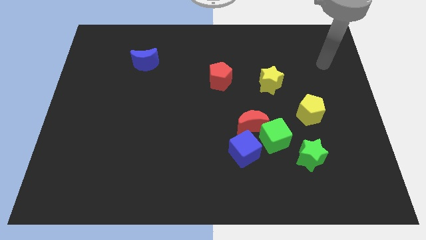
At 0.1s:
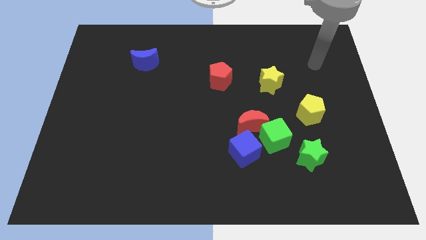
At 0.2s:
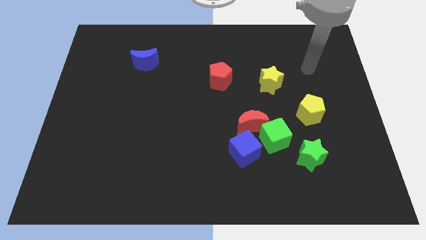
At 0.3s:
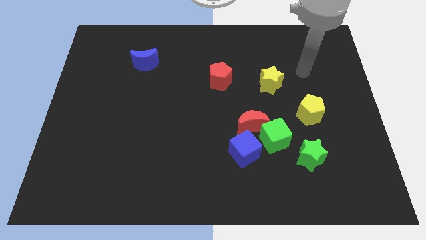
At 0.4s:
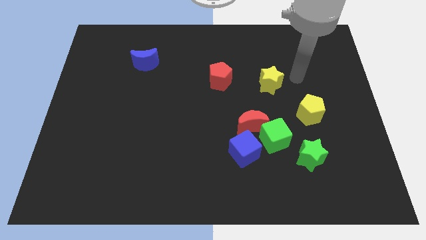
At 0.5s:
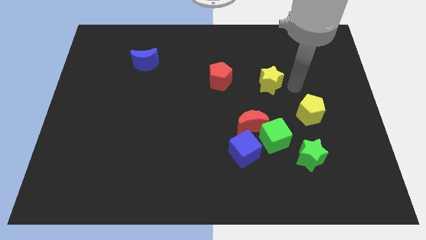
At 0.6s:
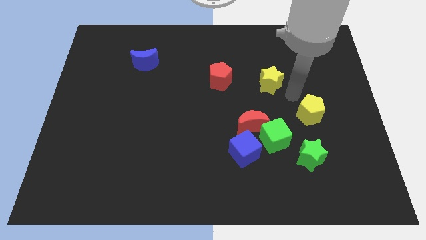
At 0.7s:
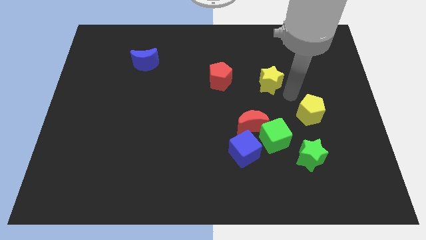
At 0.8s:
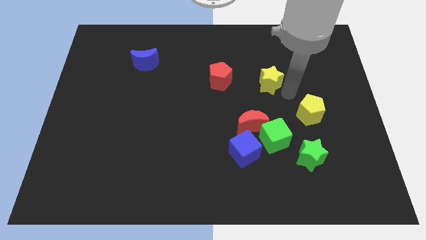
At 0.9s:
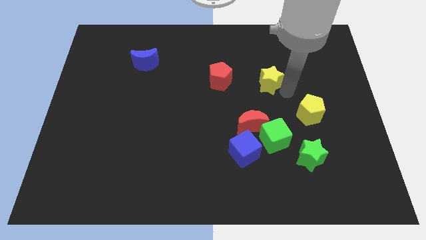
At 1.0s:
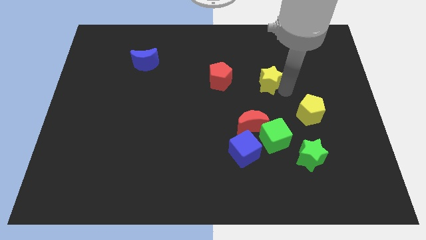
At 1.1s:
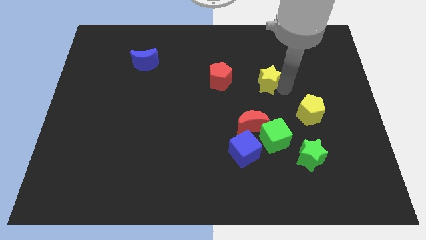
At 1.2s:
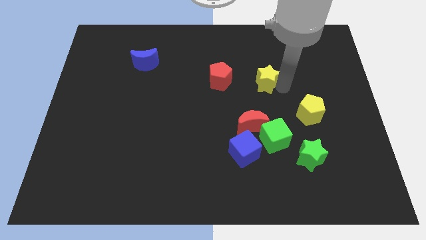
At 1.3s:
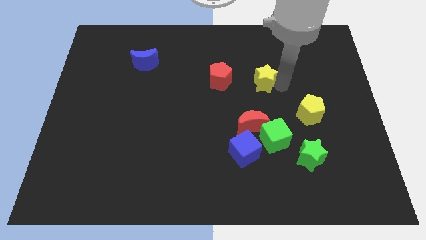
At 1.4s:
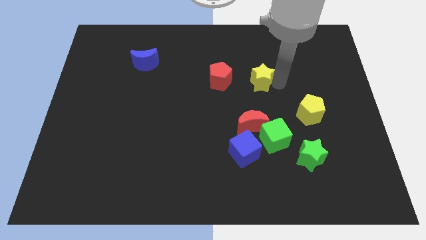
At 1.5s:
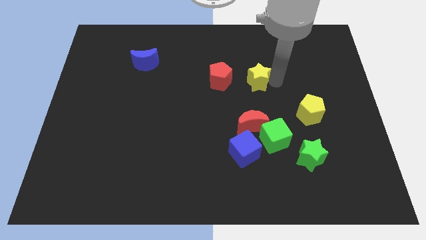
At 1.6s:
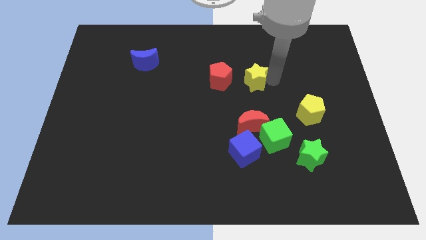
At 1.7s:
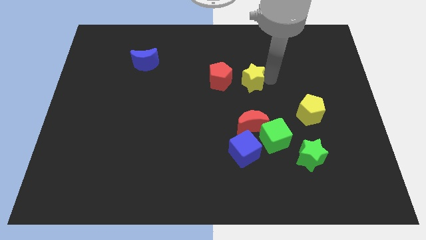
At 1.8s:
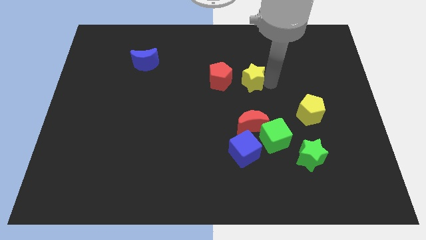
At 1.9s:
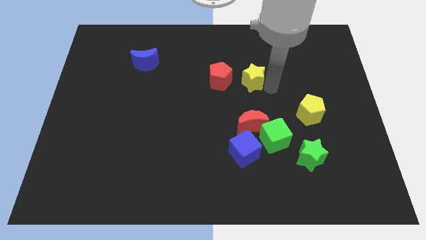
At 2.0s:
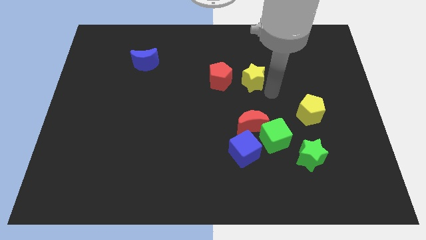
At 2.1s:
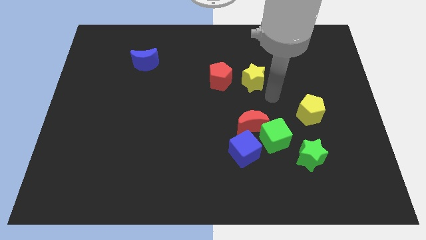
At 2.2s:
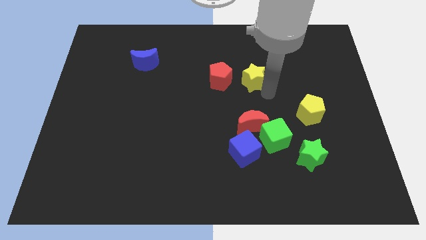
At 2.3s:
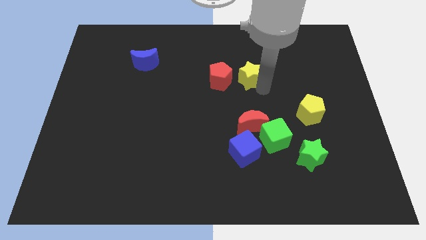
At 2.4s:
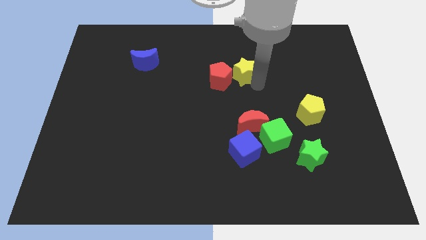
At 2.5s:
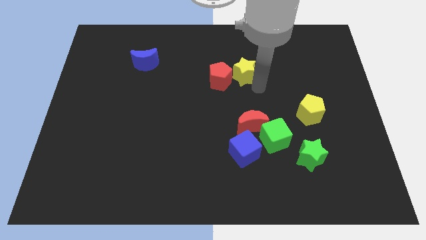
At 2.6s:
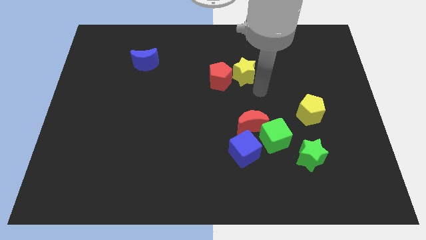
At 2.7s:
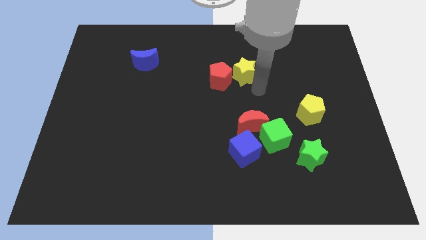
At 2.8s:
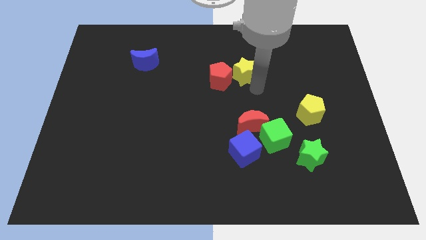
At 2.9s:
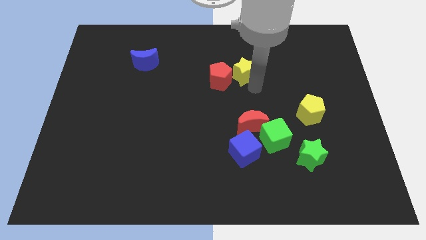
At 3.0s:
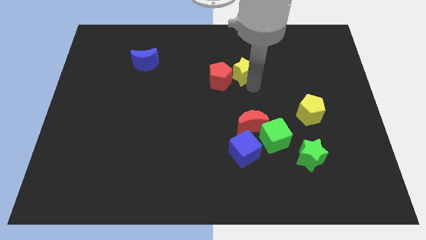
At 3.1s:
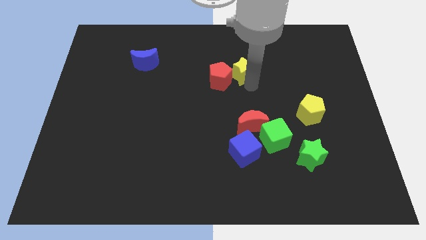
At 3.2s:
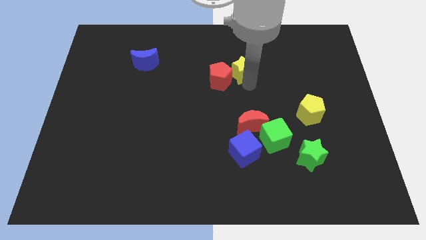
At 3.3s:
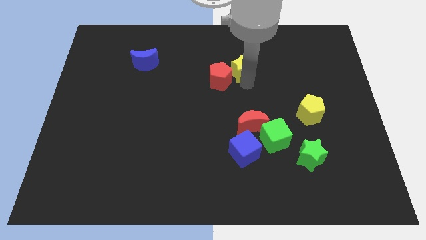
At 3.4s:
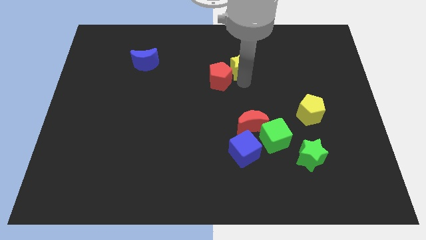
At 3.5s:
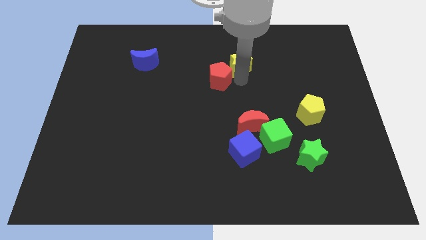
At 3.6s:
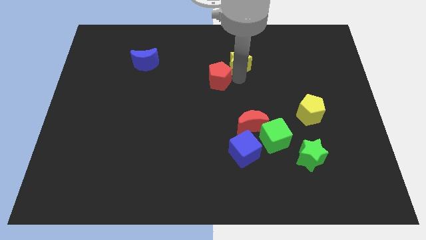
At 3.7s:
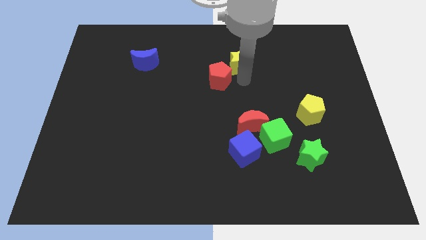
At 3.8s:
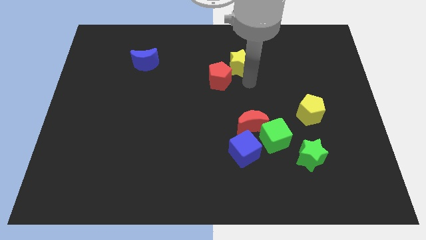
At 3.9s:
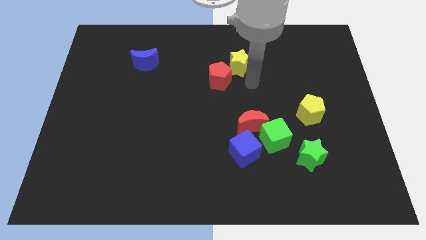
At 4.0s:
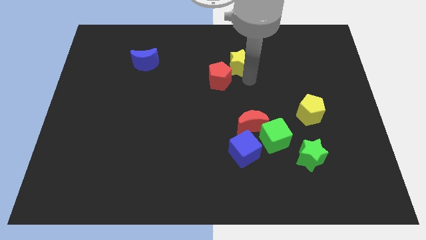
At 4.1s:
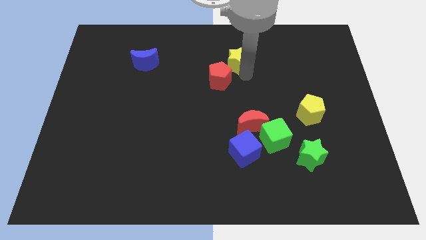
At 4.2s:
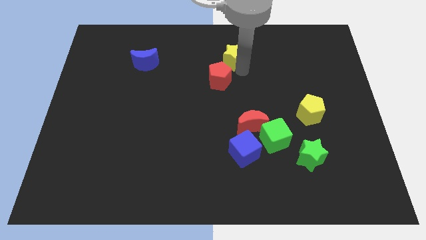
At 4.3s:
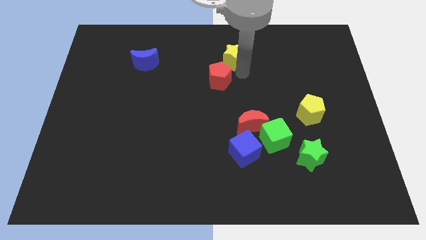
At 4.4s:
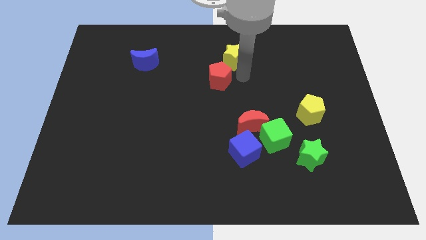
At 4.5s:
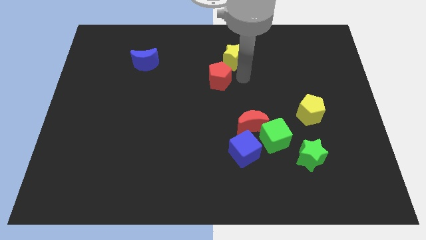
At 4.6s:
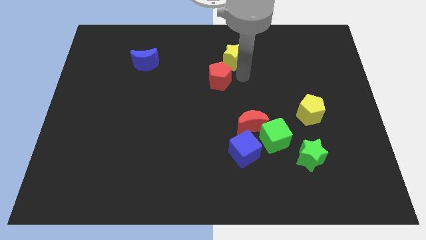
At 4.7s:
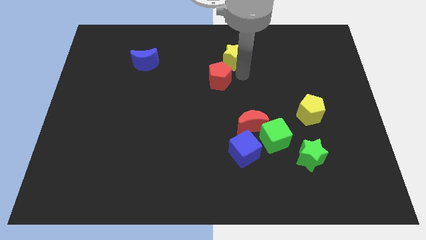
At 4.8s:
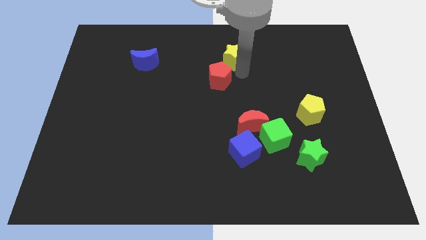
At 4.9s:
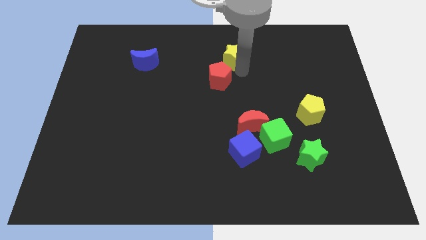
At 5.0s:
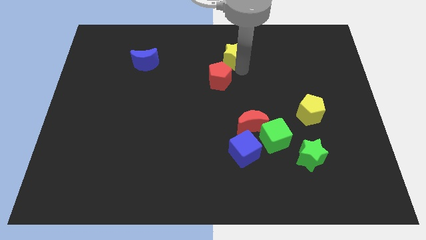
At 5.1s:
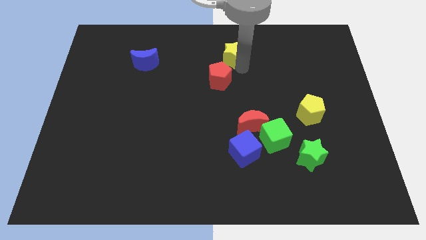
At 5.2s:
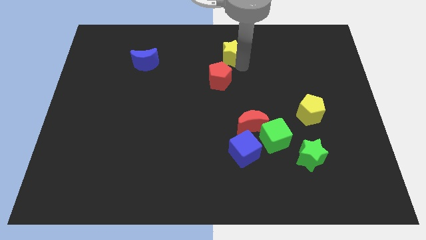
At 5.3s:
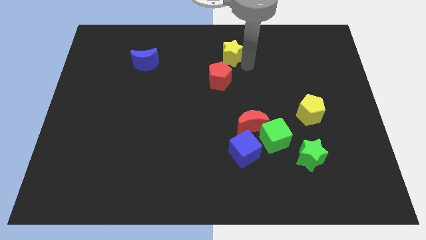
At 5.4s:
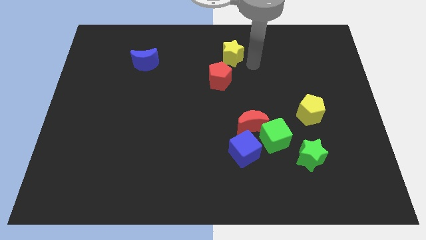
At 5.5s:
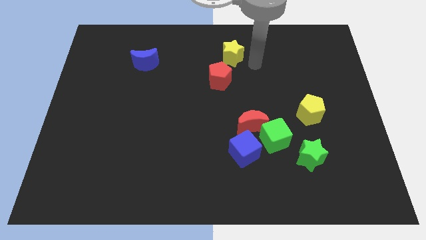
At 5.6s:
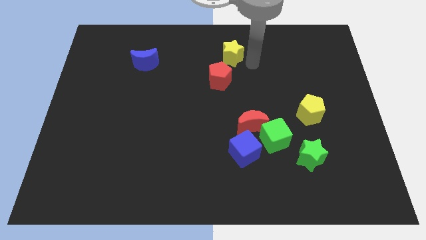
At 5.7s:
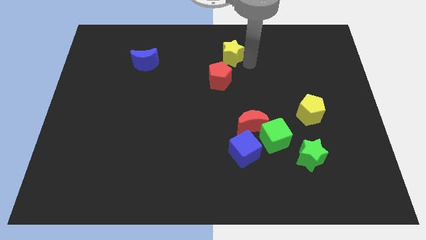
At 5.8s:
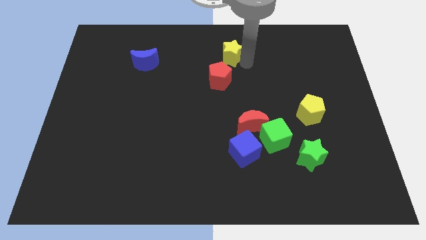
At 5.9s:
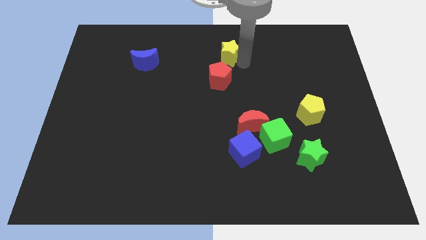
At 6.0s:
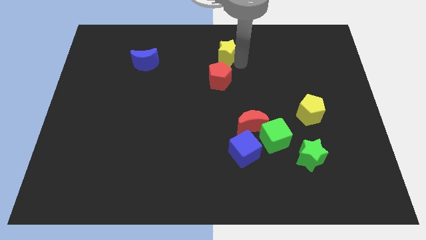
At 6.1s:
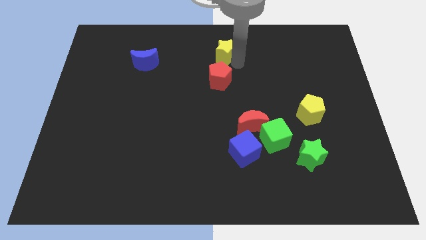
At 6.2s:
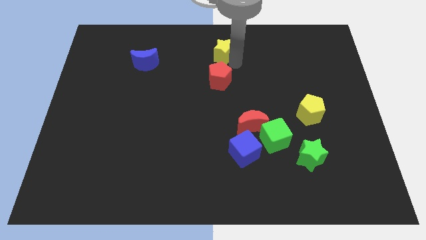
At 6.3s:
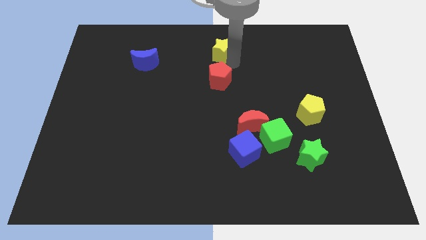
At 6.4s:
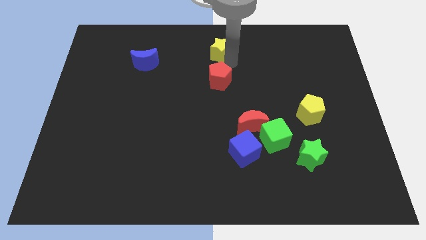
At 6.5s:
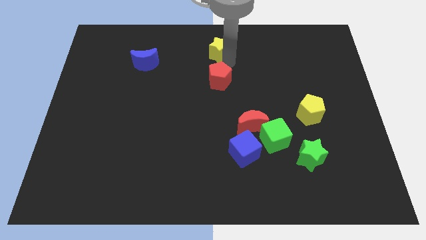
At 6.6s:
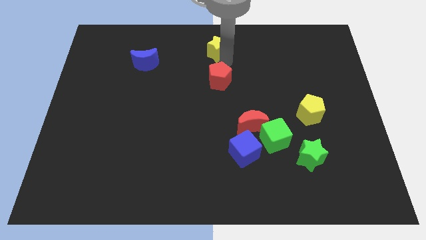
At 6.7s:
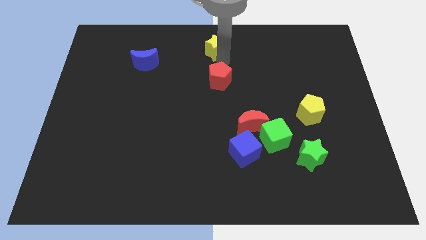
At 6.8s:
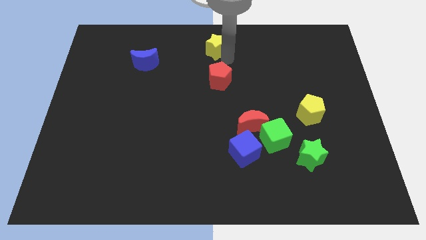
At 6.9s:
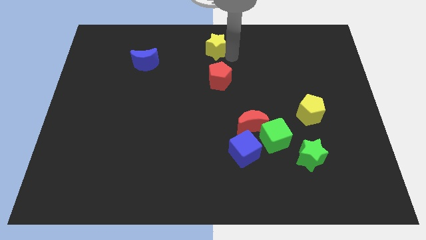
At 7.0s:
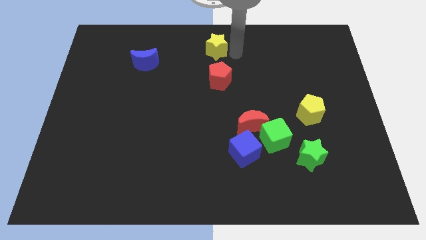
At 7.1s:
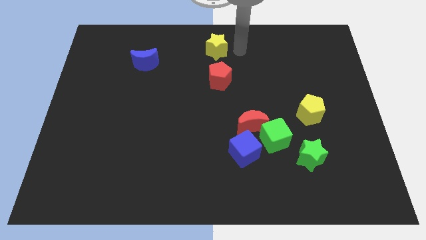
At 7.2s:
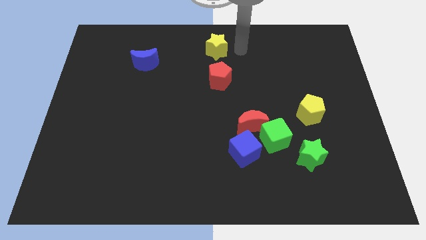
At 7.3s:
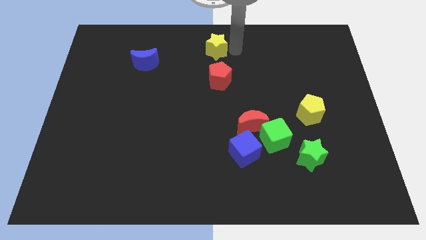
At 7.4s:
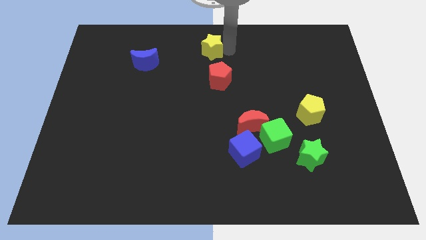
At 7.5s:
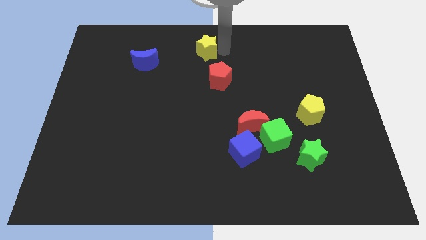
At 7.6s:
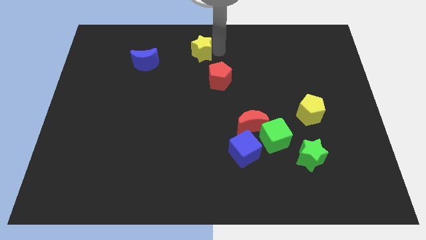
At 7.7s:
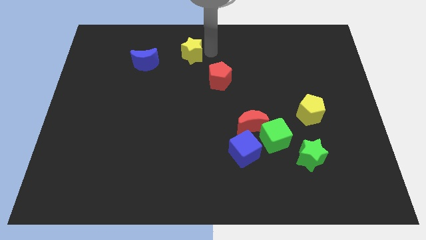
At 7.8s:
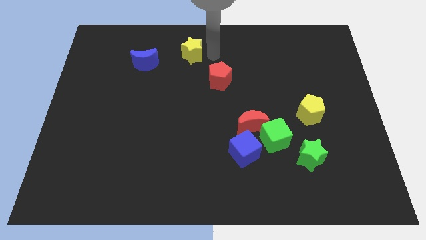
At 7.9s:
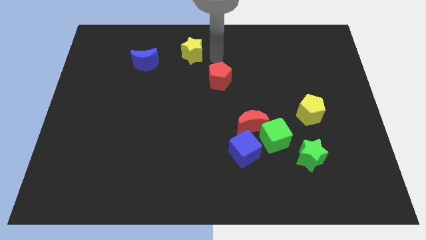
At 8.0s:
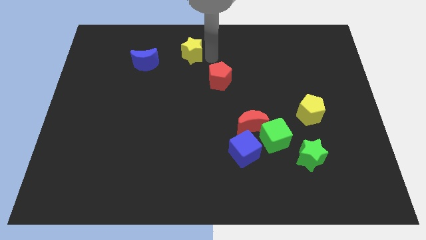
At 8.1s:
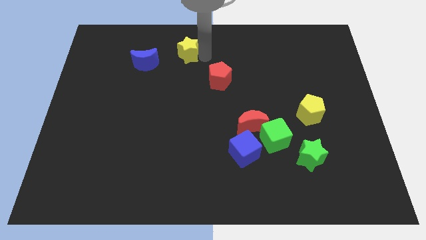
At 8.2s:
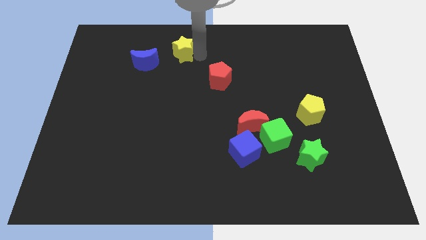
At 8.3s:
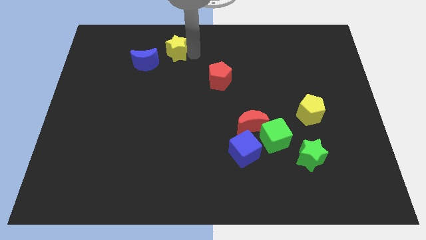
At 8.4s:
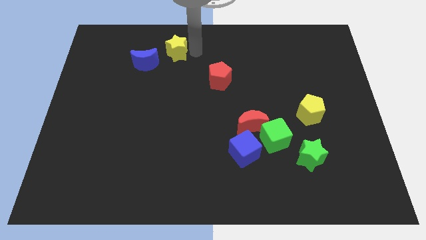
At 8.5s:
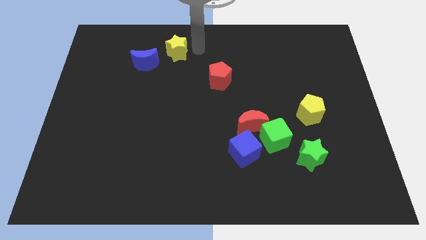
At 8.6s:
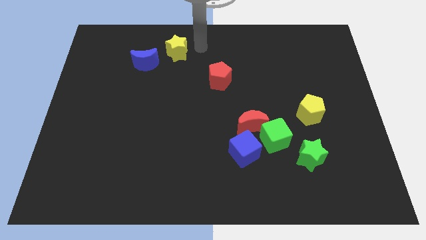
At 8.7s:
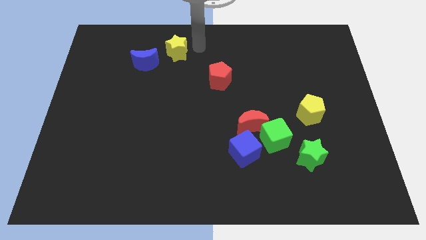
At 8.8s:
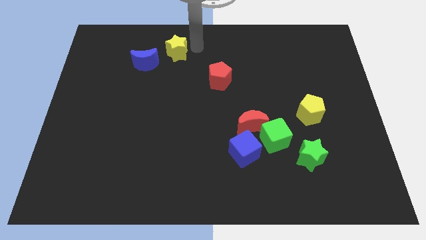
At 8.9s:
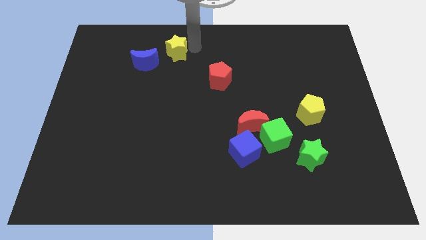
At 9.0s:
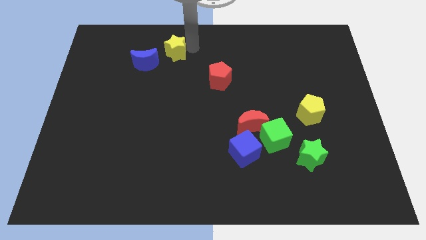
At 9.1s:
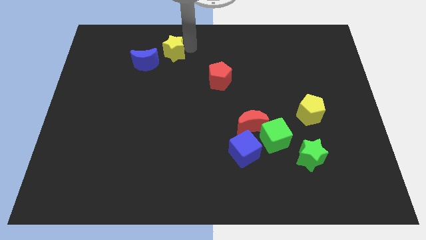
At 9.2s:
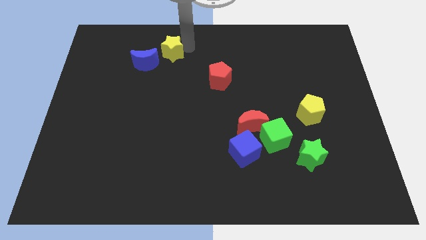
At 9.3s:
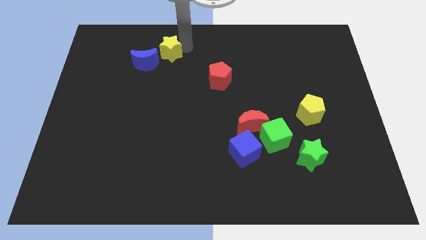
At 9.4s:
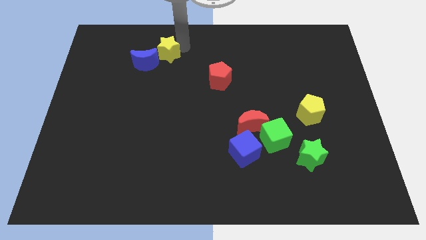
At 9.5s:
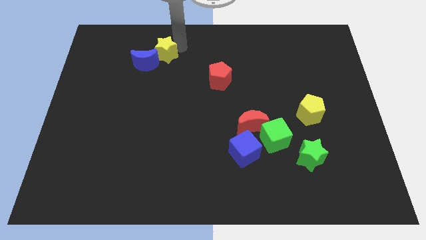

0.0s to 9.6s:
slide the yellow star towards the blue moon
